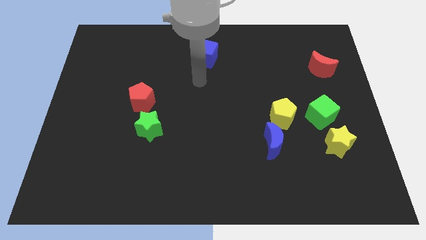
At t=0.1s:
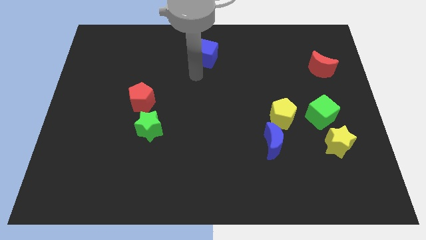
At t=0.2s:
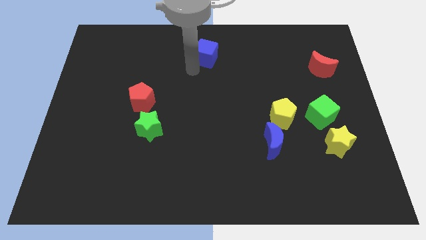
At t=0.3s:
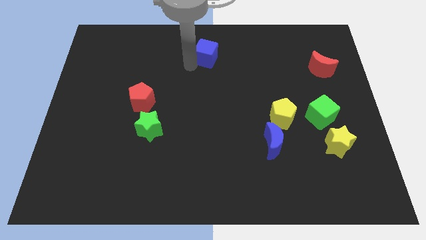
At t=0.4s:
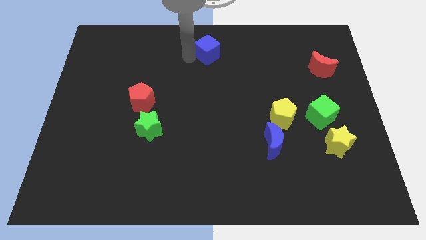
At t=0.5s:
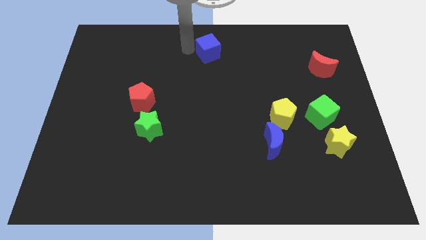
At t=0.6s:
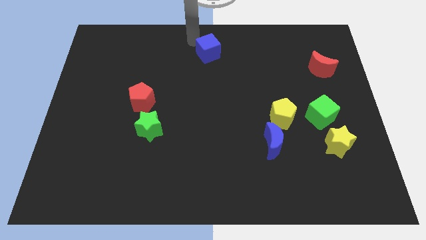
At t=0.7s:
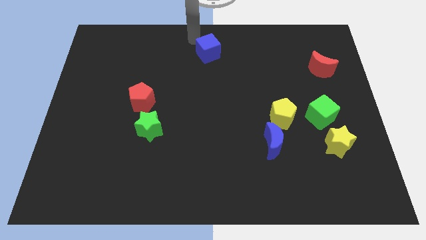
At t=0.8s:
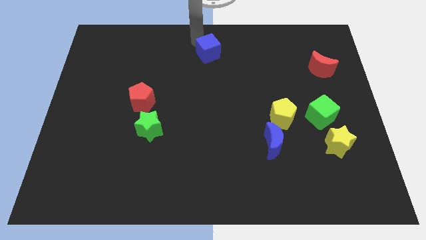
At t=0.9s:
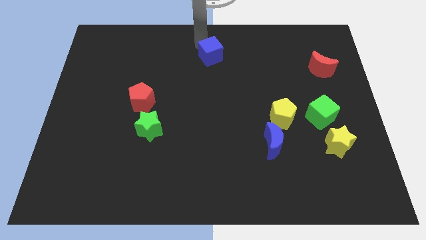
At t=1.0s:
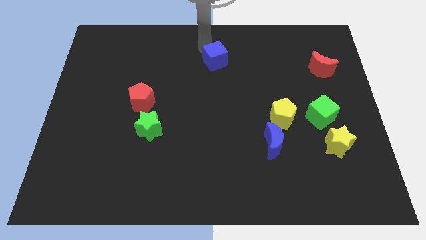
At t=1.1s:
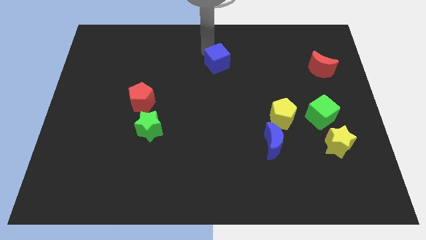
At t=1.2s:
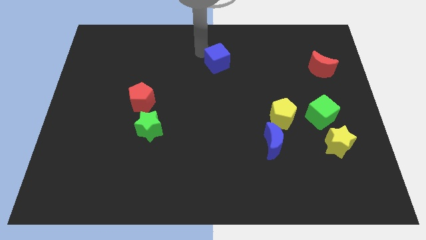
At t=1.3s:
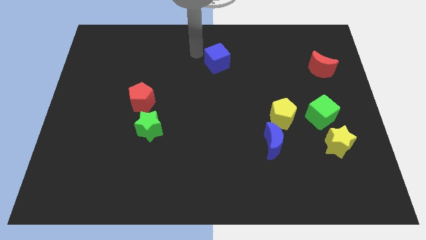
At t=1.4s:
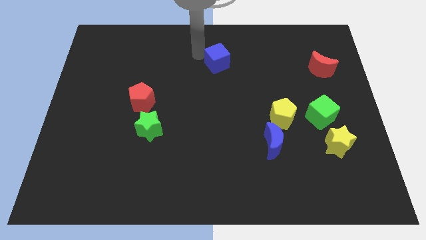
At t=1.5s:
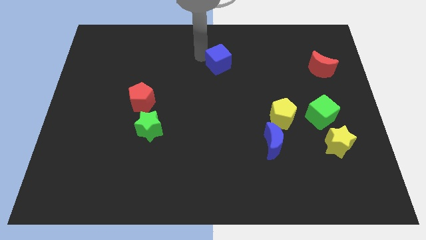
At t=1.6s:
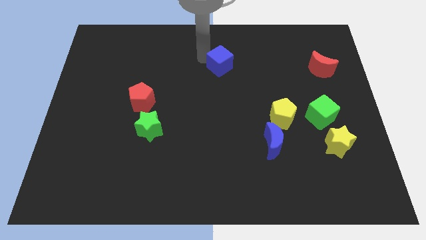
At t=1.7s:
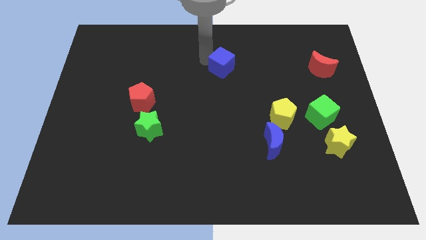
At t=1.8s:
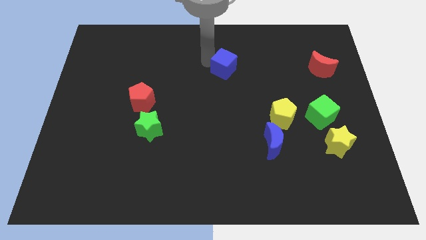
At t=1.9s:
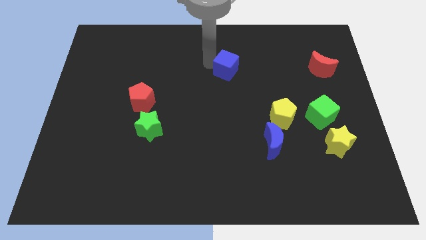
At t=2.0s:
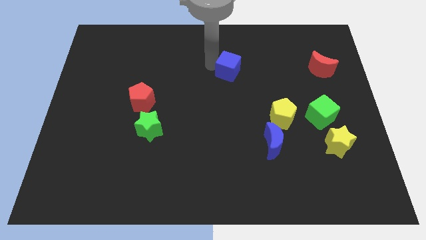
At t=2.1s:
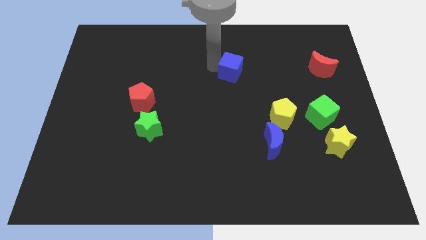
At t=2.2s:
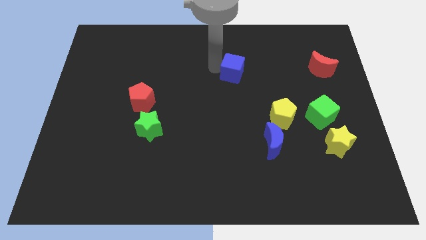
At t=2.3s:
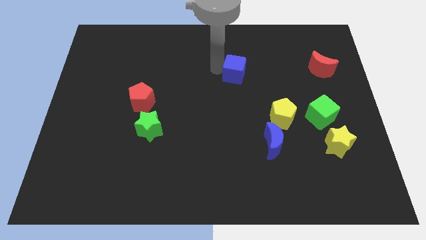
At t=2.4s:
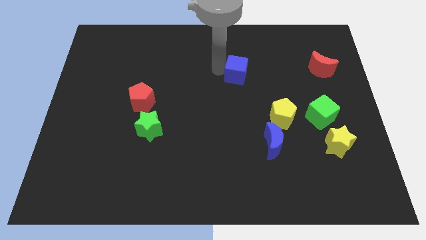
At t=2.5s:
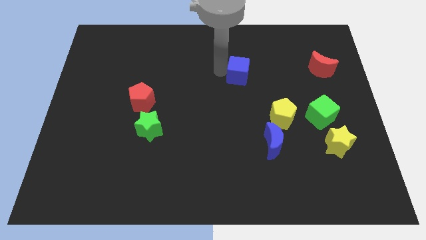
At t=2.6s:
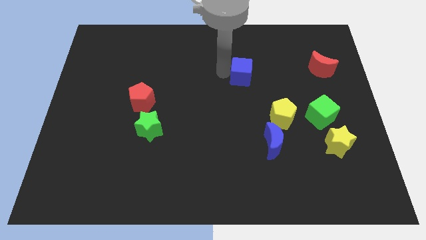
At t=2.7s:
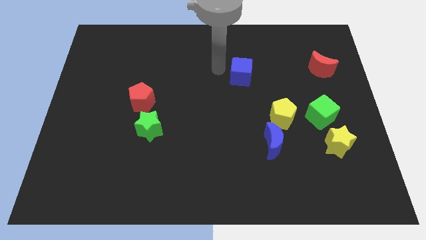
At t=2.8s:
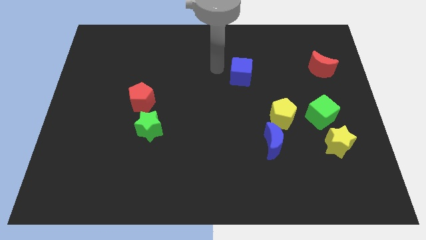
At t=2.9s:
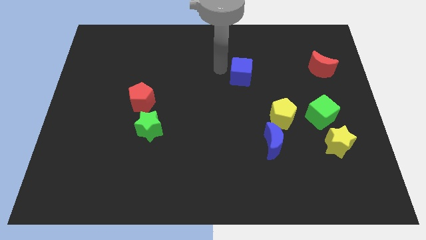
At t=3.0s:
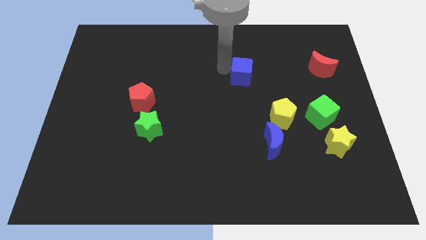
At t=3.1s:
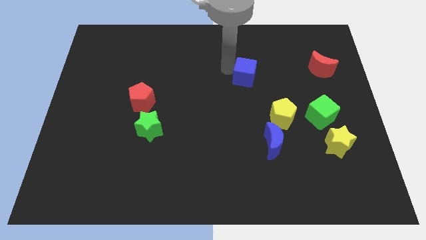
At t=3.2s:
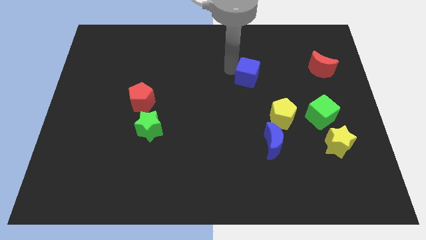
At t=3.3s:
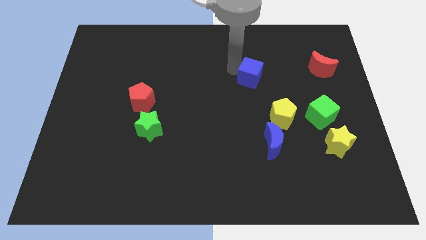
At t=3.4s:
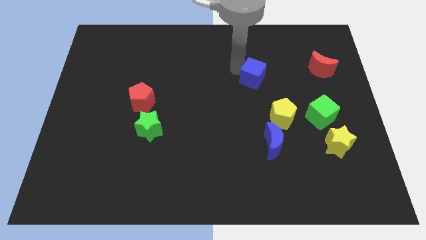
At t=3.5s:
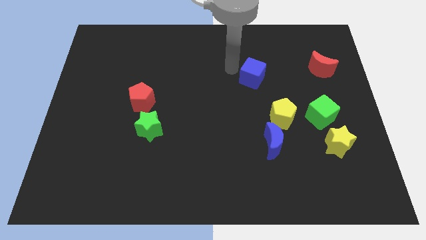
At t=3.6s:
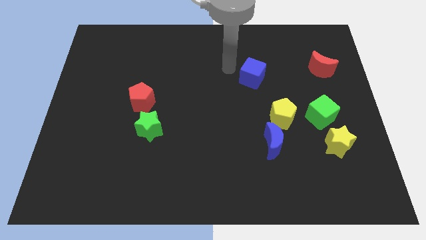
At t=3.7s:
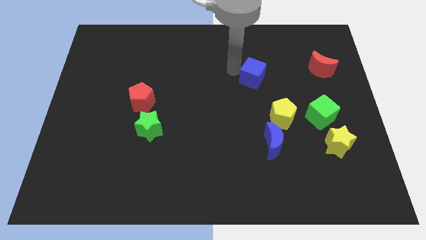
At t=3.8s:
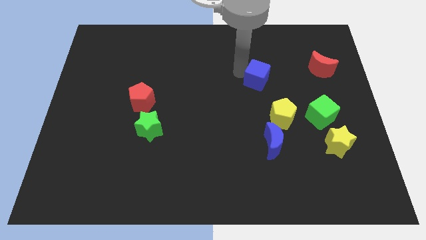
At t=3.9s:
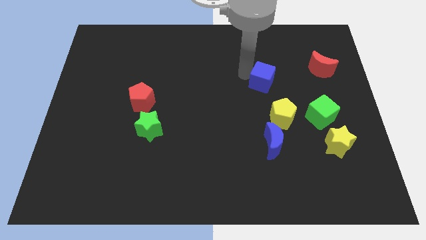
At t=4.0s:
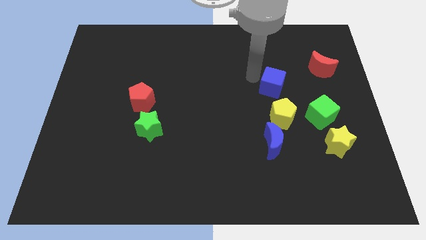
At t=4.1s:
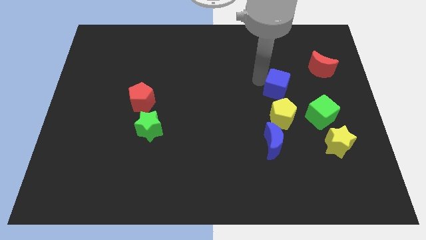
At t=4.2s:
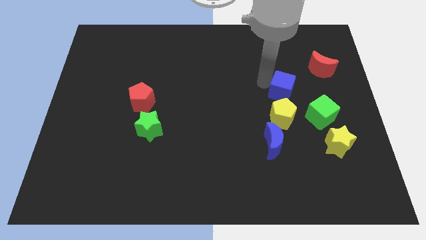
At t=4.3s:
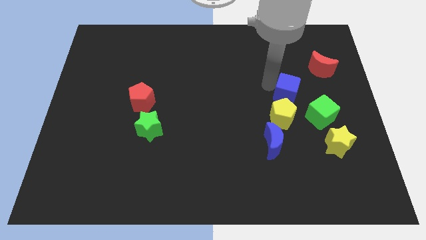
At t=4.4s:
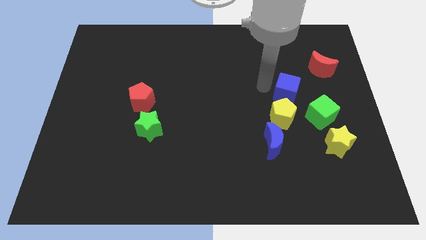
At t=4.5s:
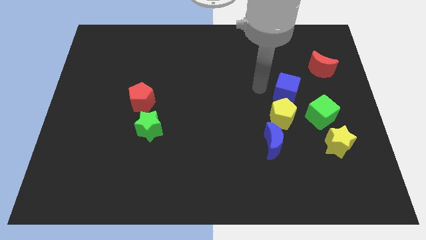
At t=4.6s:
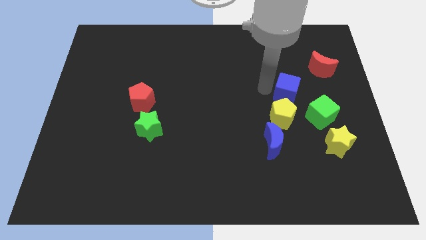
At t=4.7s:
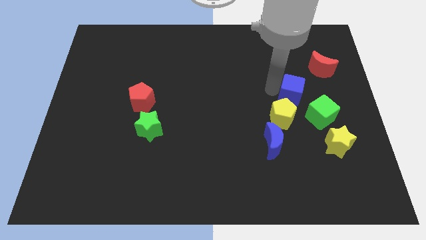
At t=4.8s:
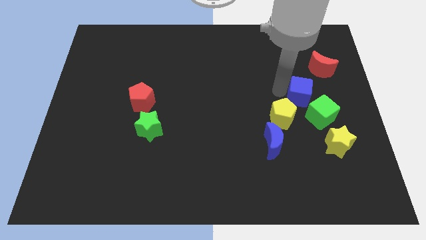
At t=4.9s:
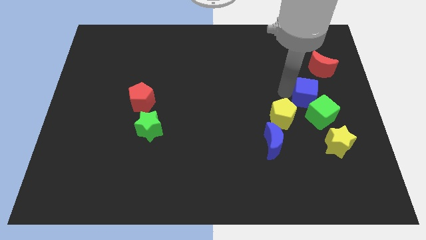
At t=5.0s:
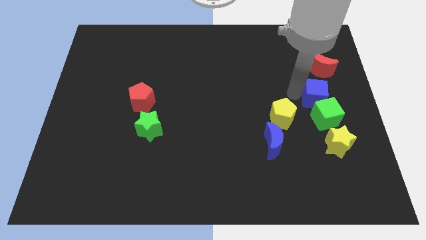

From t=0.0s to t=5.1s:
push the blue cube to the top side of the yellow star

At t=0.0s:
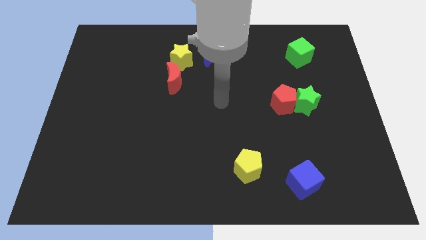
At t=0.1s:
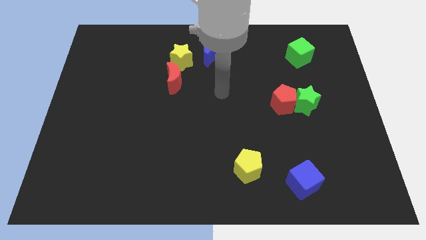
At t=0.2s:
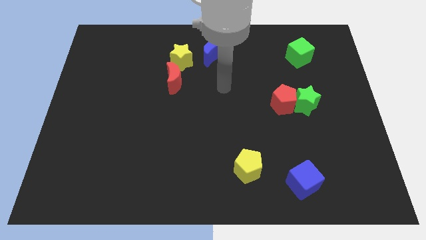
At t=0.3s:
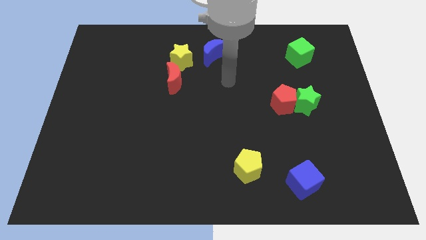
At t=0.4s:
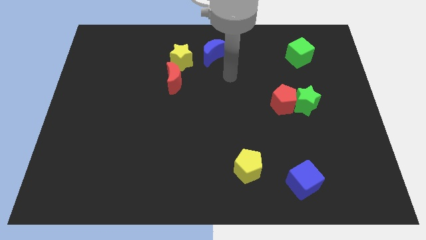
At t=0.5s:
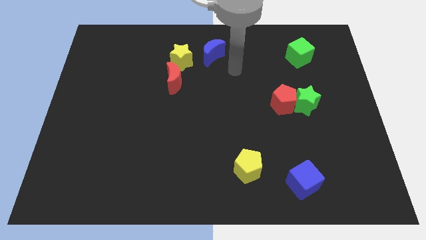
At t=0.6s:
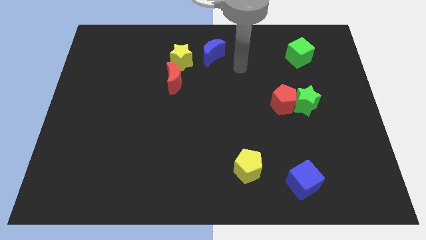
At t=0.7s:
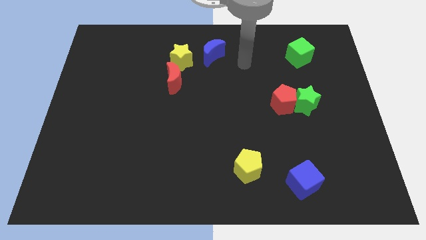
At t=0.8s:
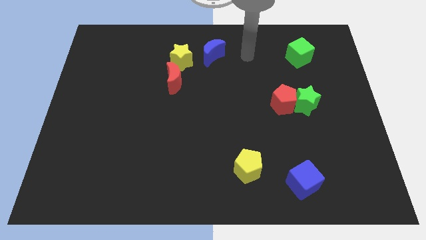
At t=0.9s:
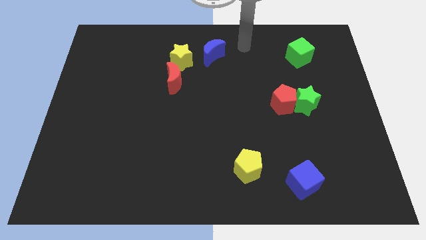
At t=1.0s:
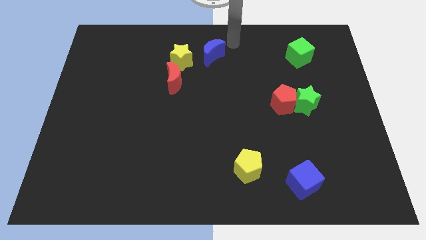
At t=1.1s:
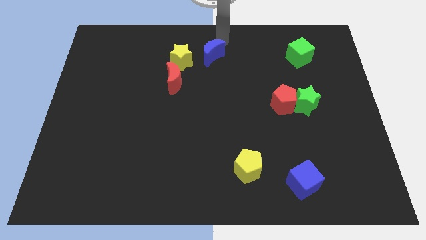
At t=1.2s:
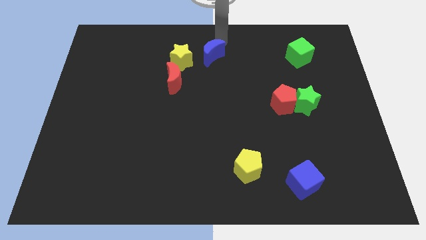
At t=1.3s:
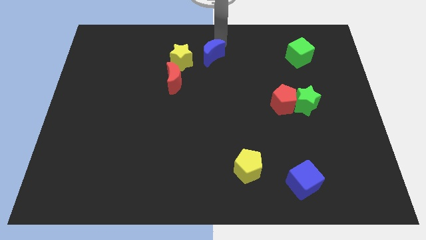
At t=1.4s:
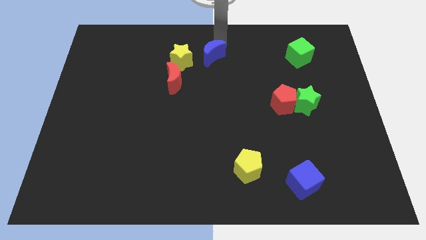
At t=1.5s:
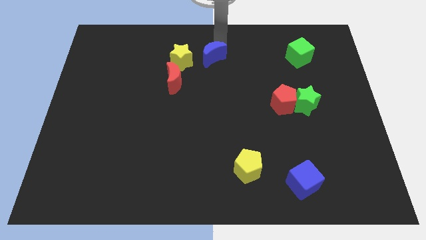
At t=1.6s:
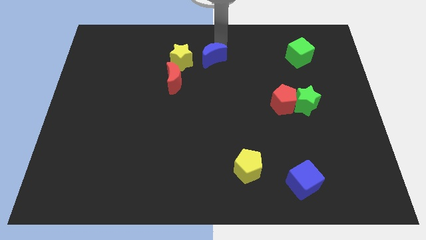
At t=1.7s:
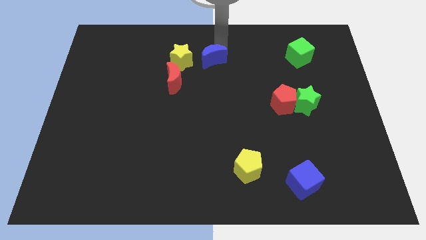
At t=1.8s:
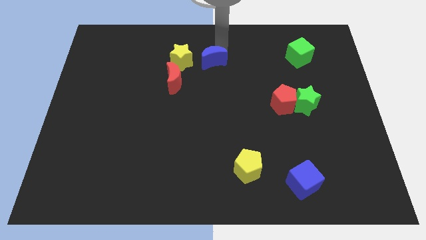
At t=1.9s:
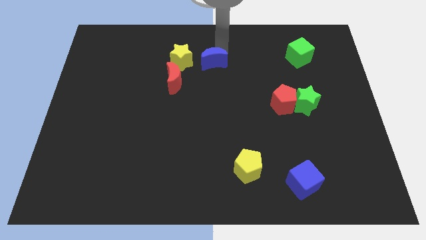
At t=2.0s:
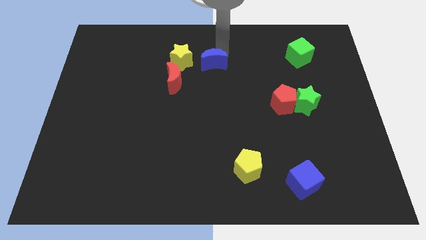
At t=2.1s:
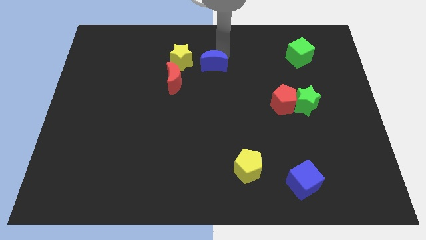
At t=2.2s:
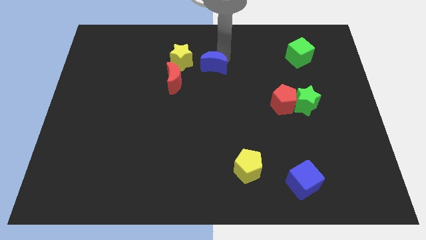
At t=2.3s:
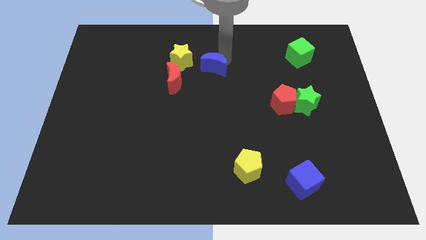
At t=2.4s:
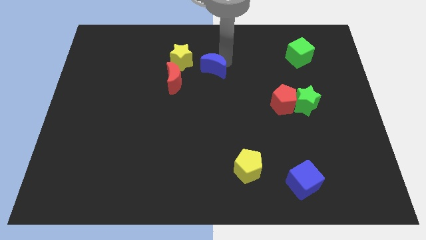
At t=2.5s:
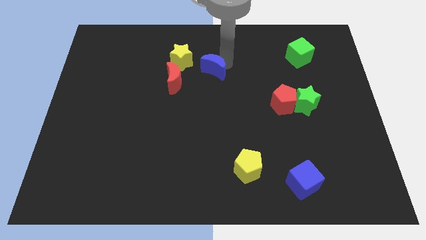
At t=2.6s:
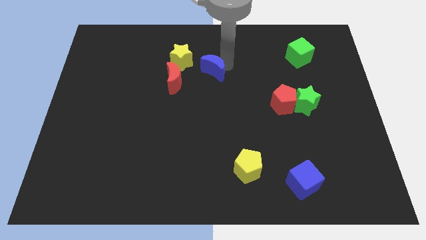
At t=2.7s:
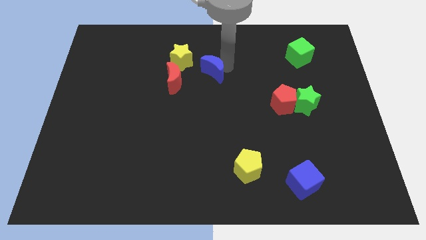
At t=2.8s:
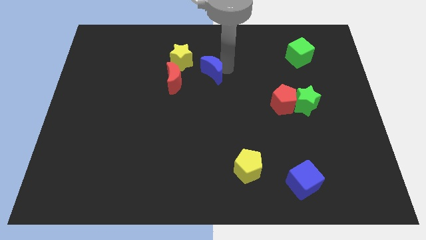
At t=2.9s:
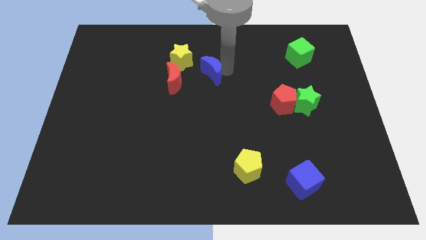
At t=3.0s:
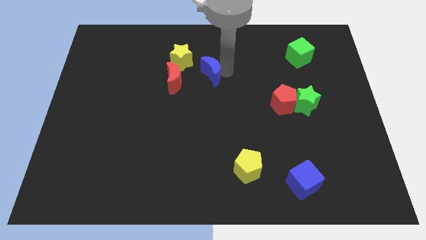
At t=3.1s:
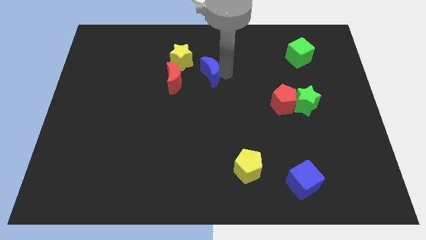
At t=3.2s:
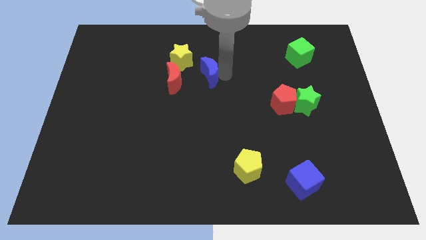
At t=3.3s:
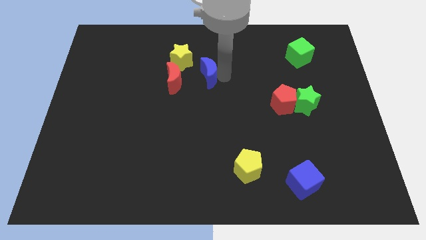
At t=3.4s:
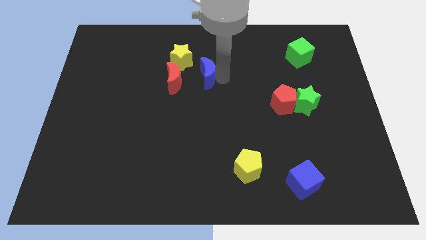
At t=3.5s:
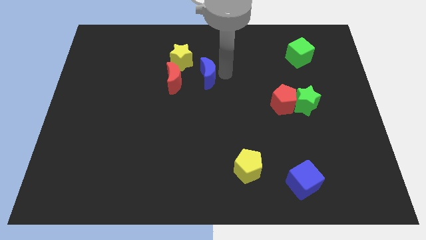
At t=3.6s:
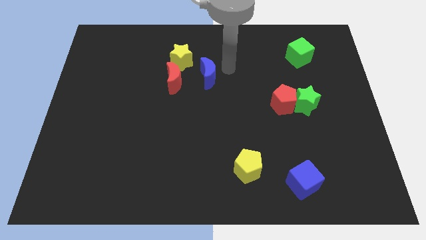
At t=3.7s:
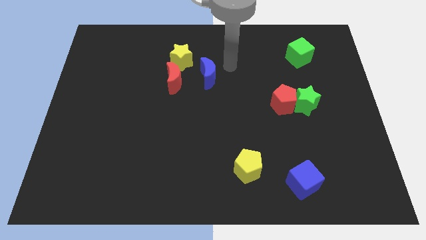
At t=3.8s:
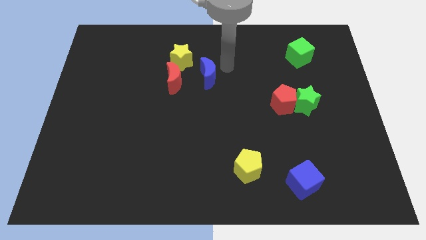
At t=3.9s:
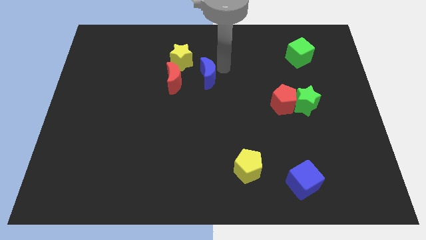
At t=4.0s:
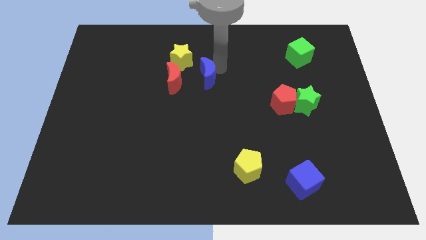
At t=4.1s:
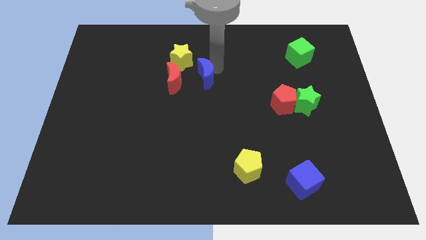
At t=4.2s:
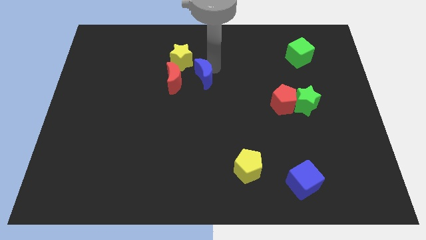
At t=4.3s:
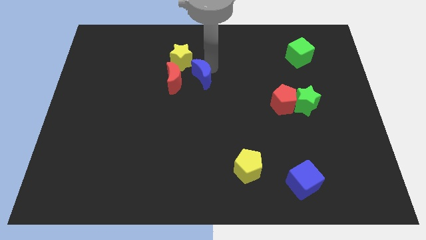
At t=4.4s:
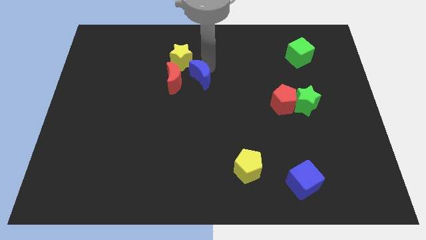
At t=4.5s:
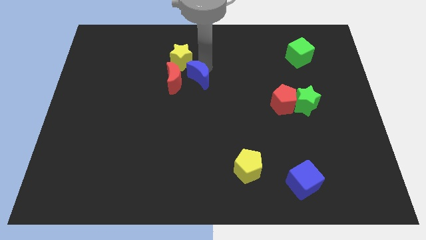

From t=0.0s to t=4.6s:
move the blue moon below the yellow star
